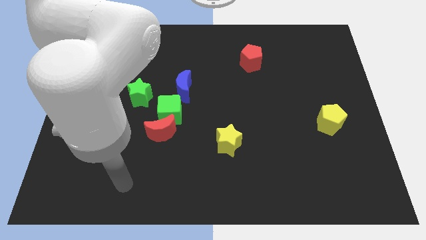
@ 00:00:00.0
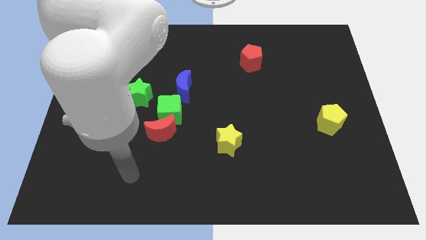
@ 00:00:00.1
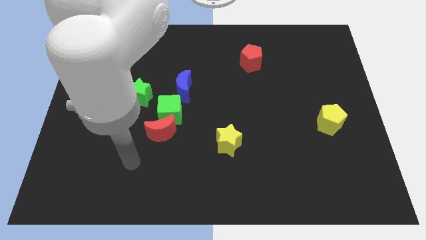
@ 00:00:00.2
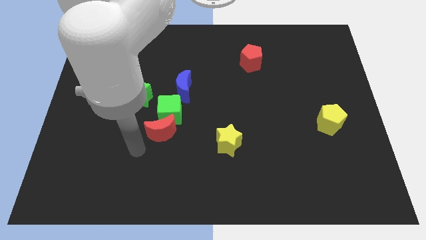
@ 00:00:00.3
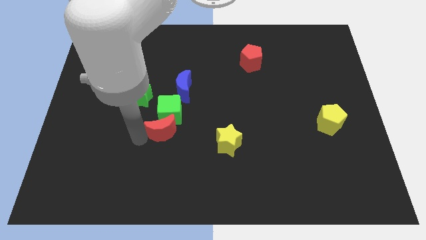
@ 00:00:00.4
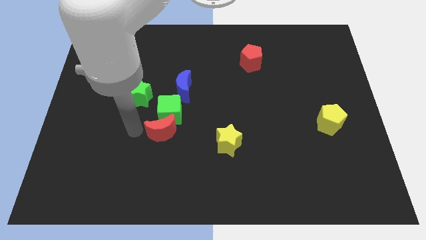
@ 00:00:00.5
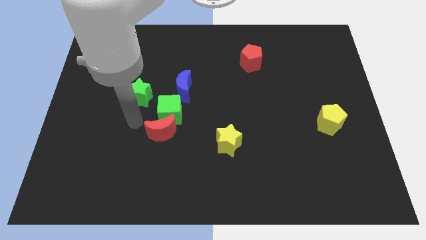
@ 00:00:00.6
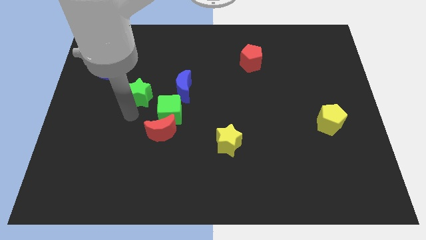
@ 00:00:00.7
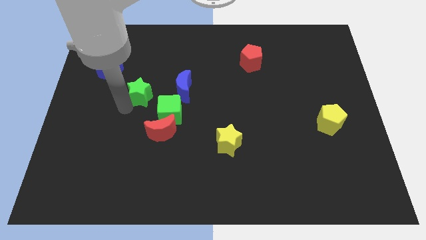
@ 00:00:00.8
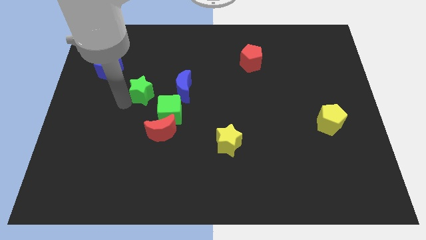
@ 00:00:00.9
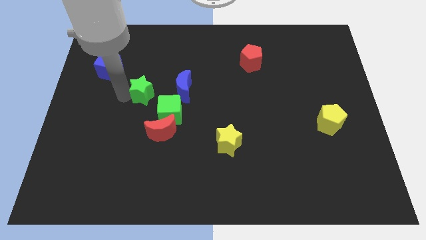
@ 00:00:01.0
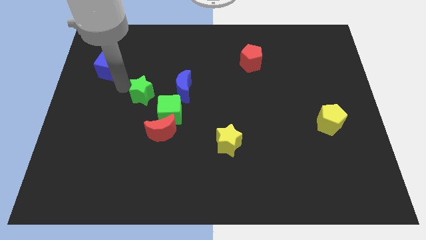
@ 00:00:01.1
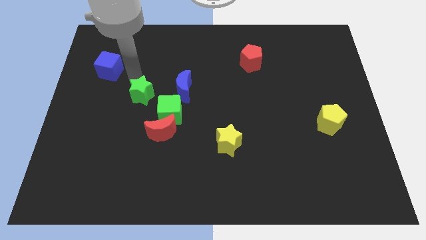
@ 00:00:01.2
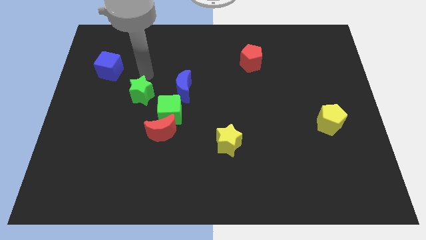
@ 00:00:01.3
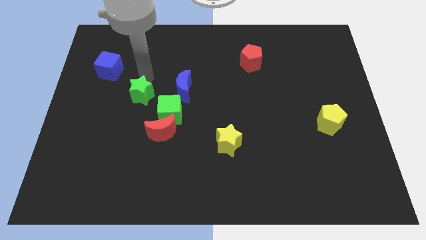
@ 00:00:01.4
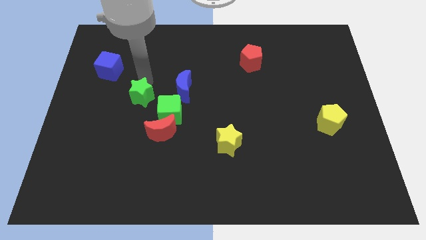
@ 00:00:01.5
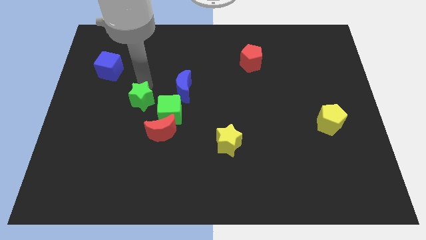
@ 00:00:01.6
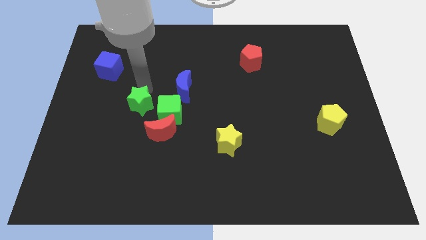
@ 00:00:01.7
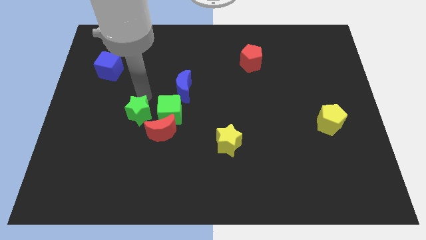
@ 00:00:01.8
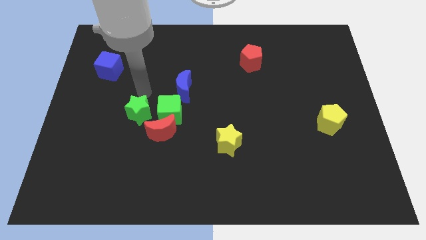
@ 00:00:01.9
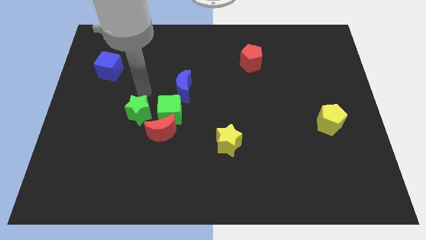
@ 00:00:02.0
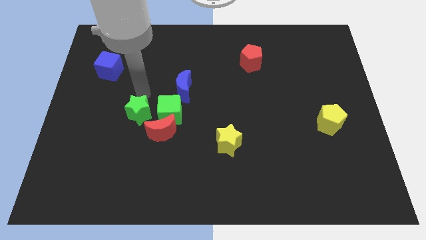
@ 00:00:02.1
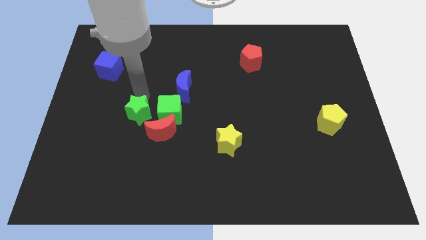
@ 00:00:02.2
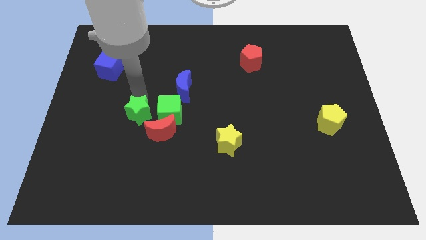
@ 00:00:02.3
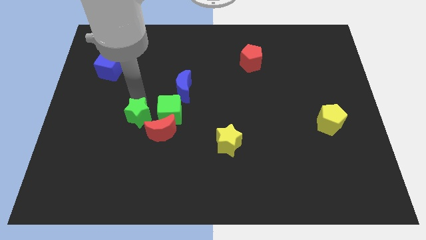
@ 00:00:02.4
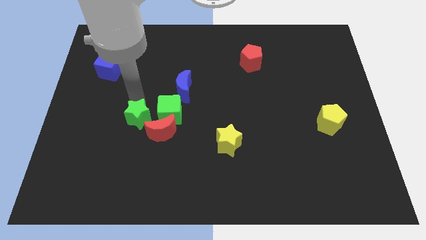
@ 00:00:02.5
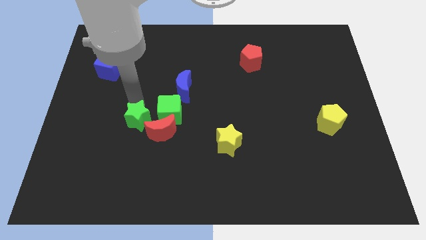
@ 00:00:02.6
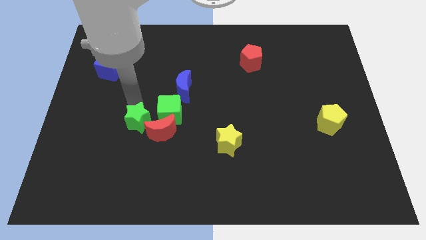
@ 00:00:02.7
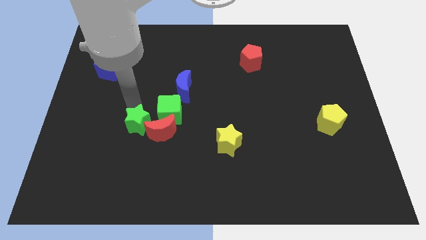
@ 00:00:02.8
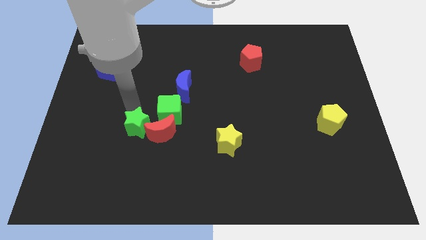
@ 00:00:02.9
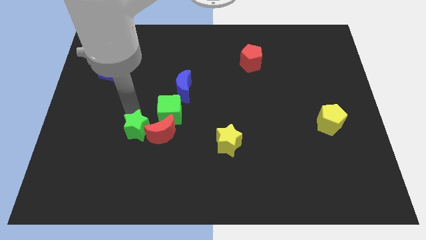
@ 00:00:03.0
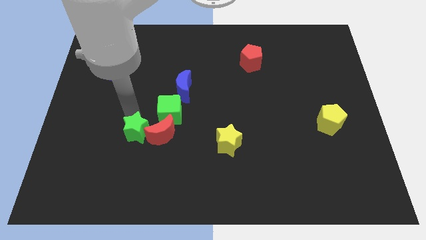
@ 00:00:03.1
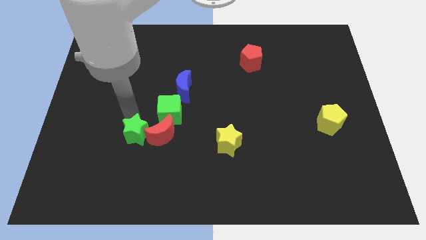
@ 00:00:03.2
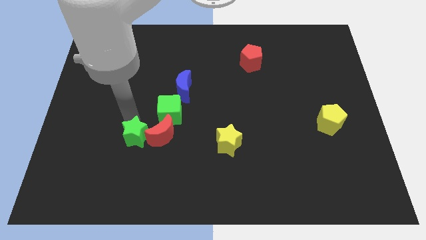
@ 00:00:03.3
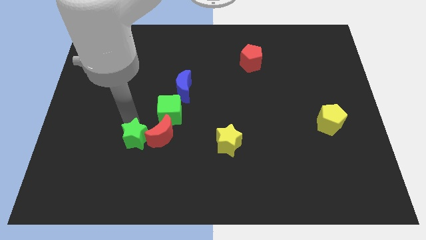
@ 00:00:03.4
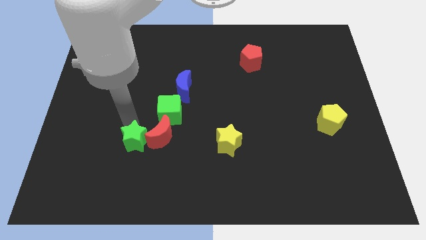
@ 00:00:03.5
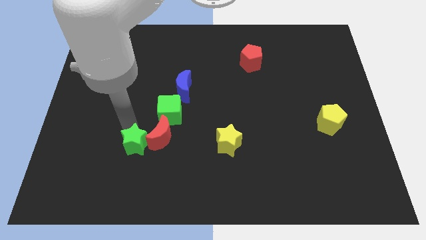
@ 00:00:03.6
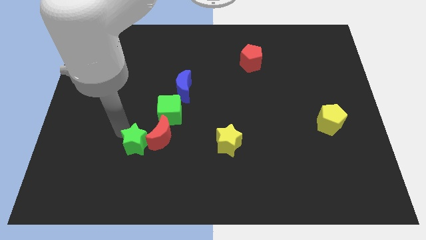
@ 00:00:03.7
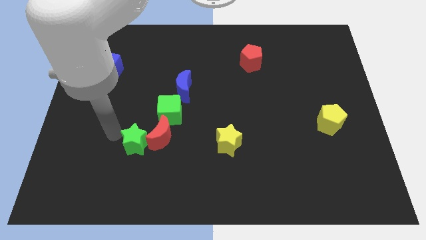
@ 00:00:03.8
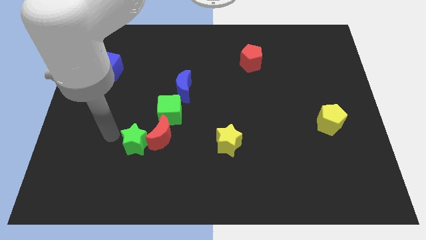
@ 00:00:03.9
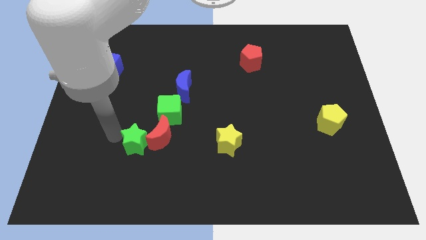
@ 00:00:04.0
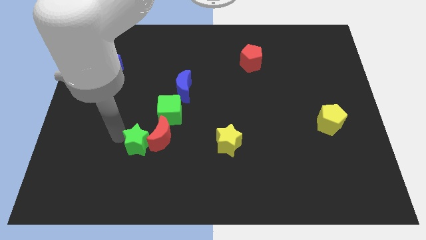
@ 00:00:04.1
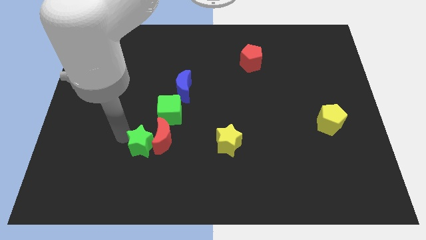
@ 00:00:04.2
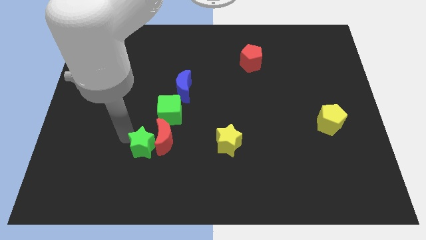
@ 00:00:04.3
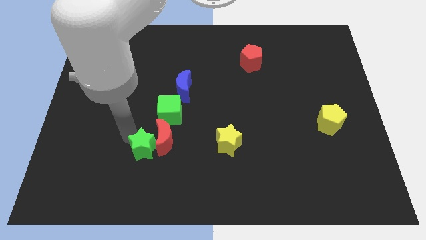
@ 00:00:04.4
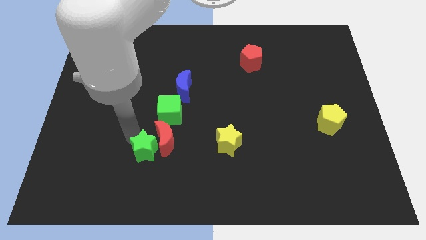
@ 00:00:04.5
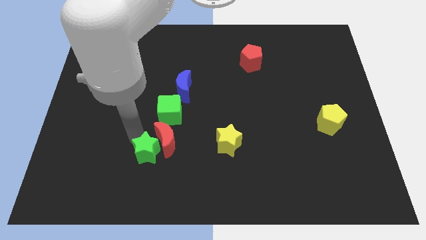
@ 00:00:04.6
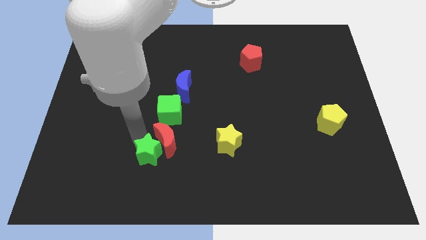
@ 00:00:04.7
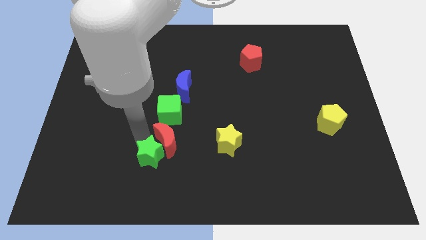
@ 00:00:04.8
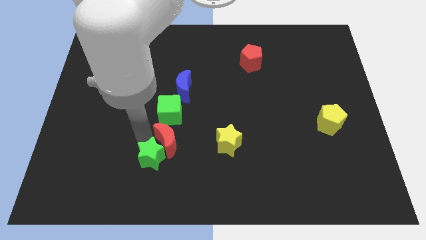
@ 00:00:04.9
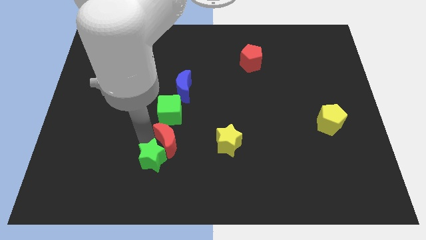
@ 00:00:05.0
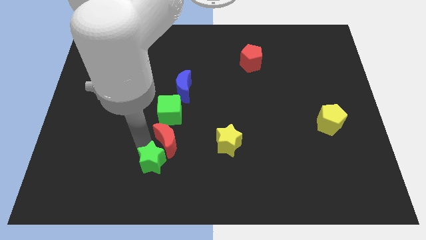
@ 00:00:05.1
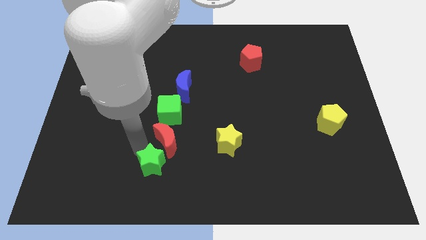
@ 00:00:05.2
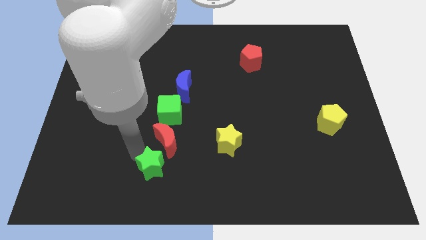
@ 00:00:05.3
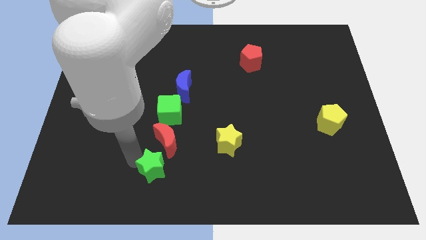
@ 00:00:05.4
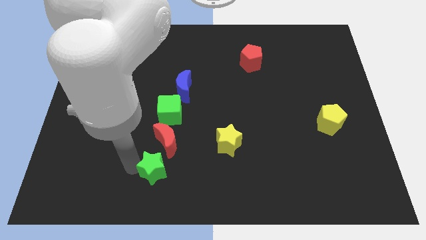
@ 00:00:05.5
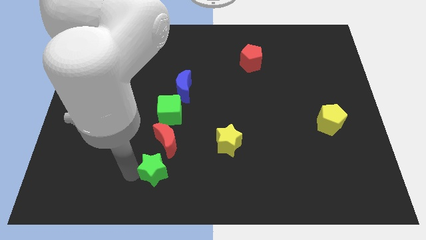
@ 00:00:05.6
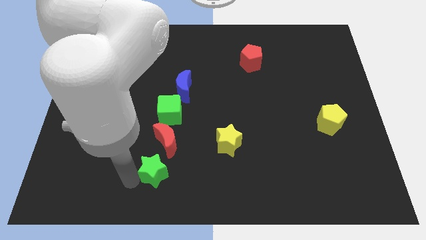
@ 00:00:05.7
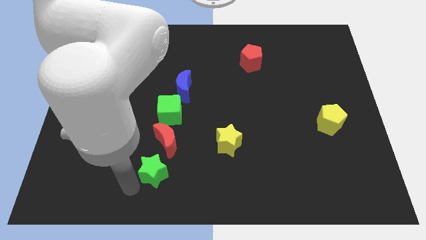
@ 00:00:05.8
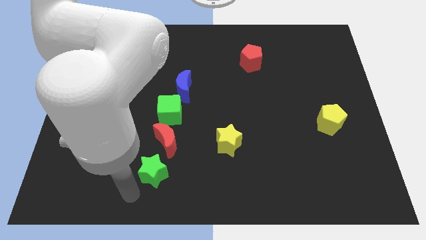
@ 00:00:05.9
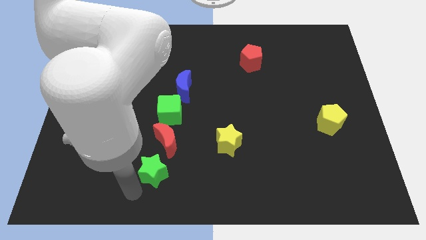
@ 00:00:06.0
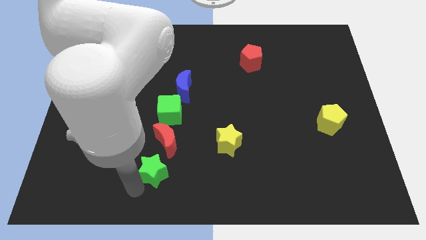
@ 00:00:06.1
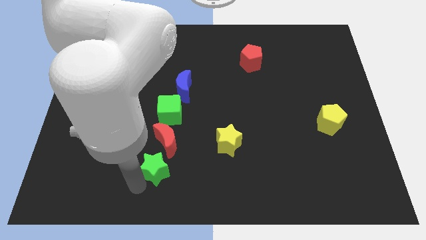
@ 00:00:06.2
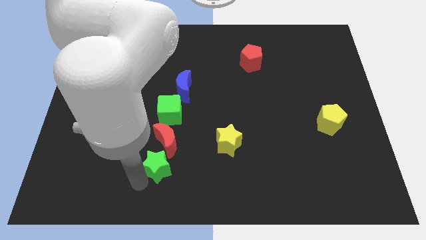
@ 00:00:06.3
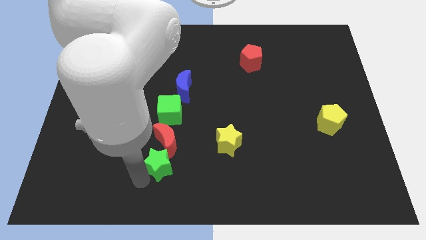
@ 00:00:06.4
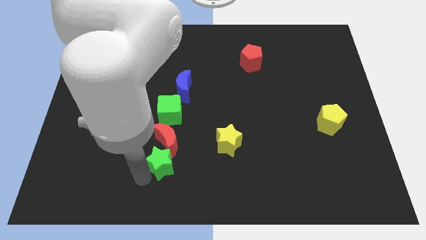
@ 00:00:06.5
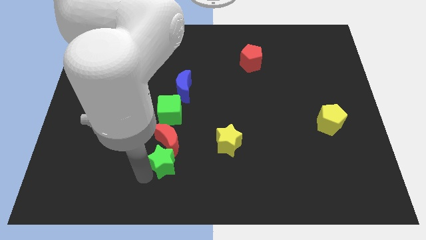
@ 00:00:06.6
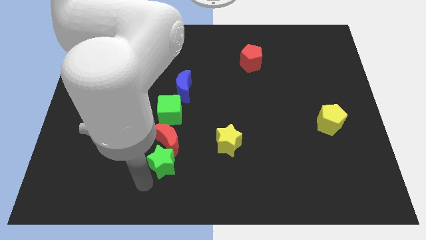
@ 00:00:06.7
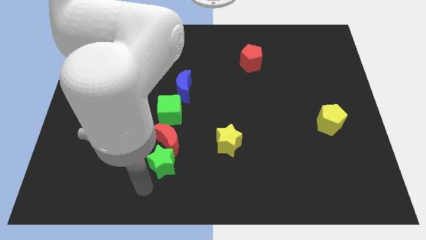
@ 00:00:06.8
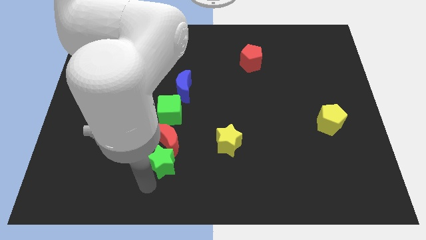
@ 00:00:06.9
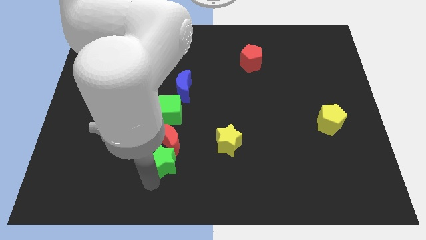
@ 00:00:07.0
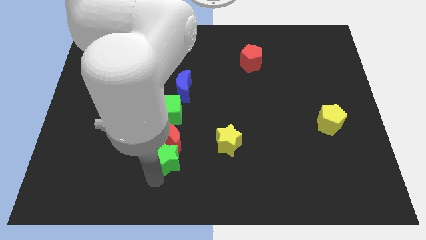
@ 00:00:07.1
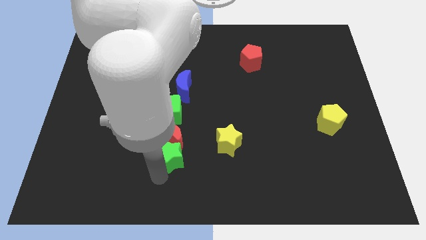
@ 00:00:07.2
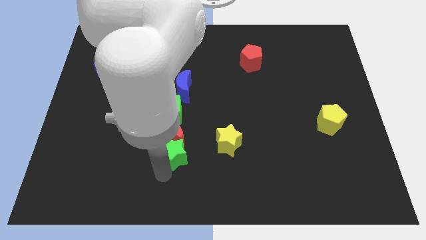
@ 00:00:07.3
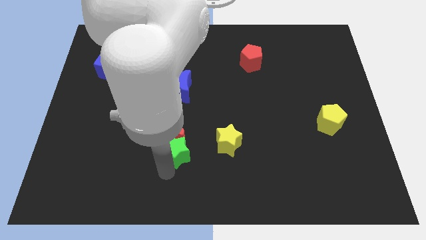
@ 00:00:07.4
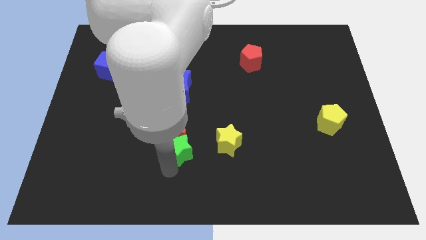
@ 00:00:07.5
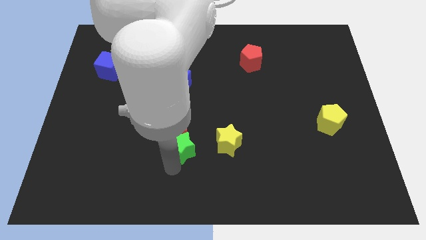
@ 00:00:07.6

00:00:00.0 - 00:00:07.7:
slide the green star diagonally down and to the right of the green cube
